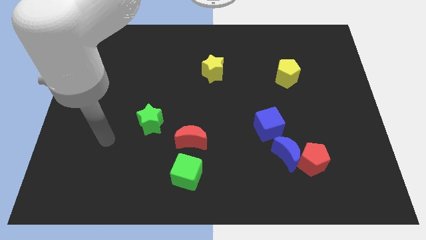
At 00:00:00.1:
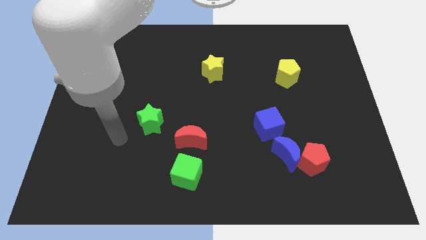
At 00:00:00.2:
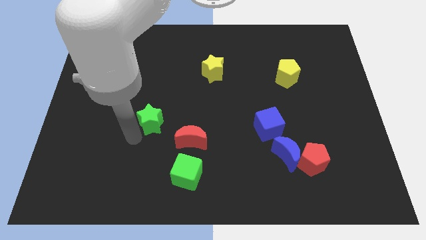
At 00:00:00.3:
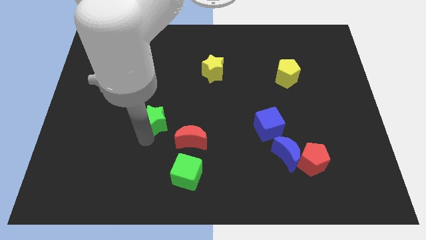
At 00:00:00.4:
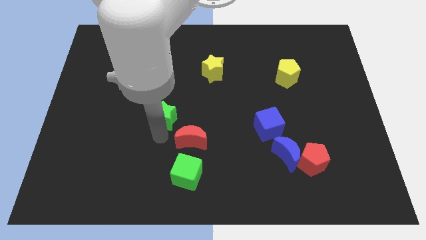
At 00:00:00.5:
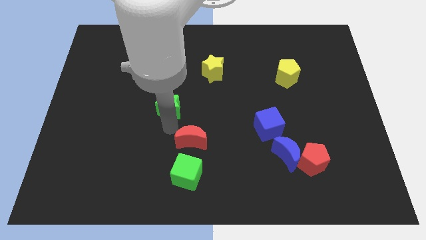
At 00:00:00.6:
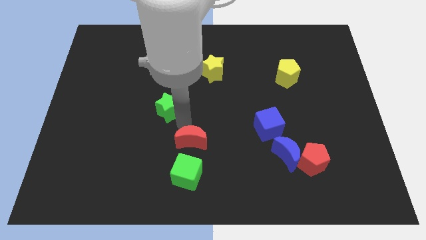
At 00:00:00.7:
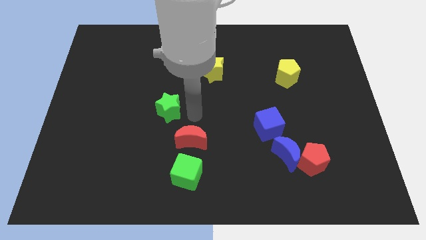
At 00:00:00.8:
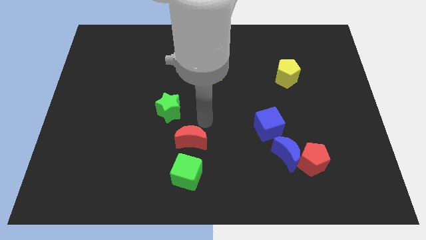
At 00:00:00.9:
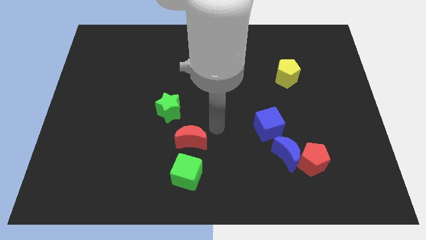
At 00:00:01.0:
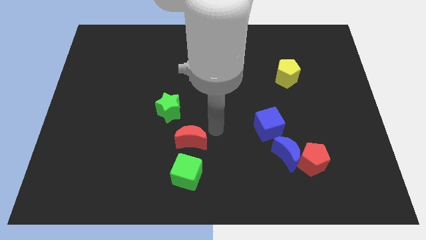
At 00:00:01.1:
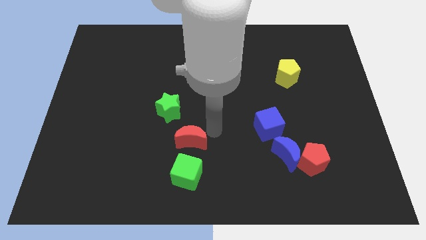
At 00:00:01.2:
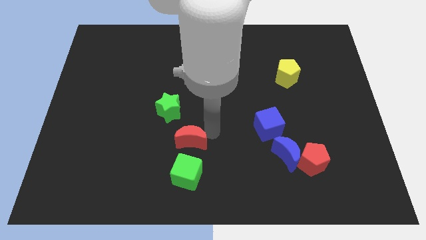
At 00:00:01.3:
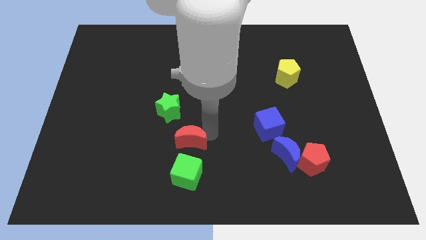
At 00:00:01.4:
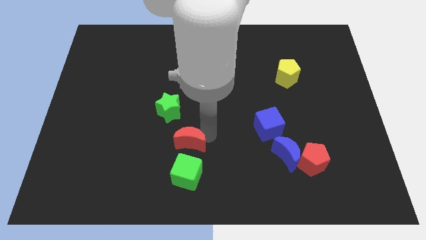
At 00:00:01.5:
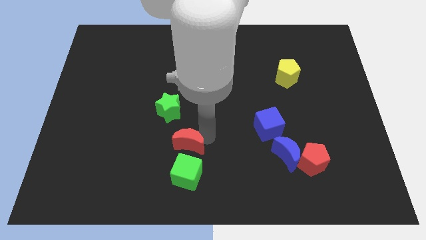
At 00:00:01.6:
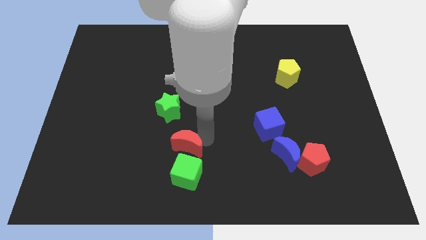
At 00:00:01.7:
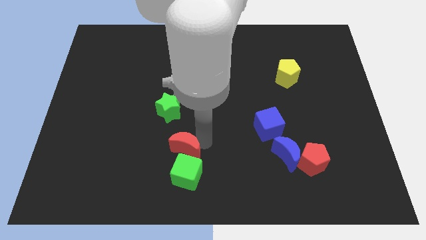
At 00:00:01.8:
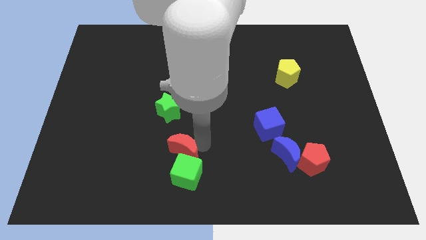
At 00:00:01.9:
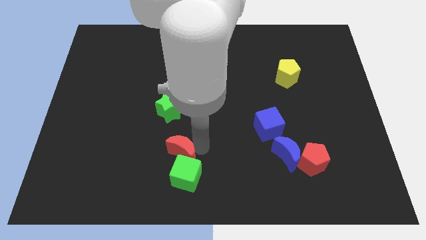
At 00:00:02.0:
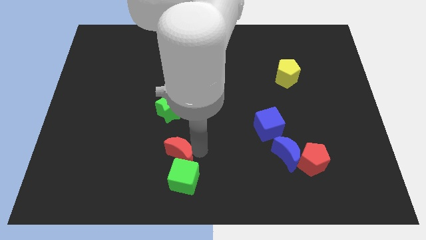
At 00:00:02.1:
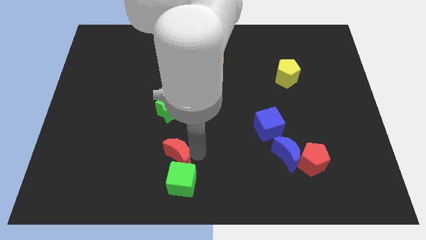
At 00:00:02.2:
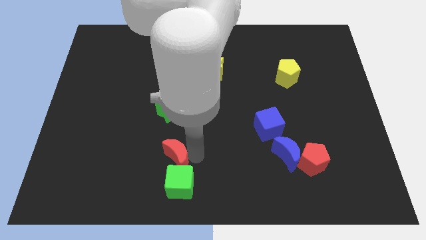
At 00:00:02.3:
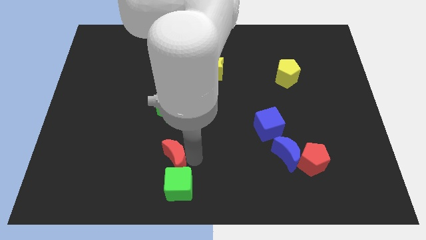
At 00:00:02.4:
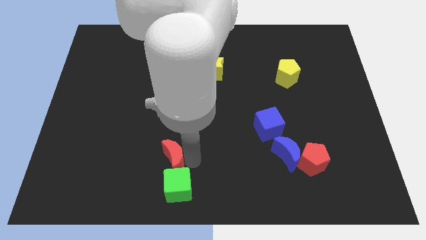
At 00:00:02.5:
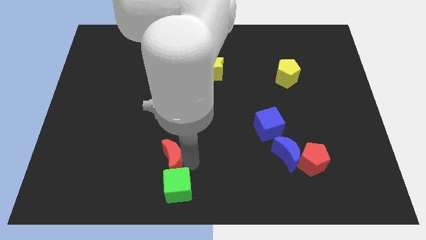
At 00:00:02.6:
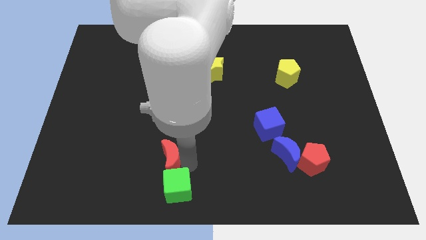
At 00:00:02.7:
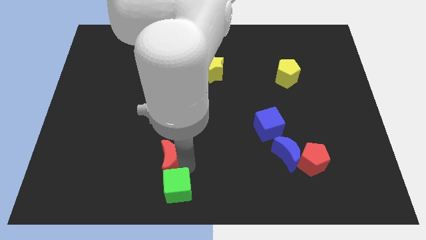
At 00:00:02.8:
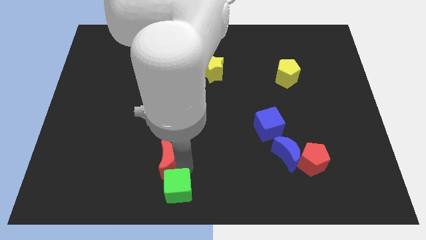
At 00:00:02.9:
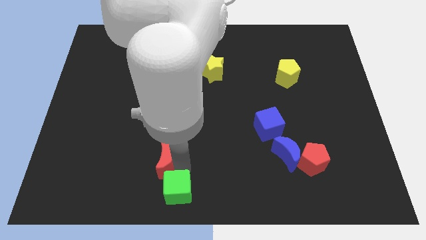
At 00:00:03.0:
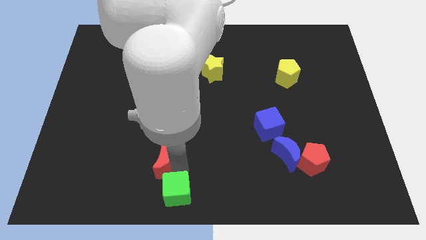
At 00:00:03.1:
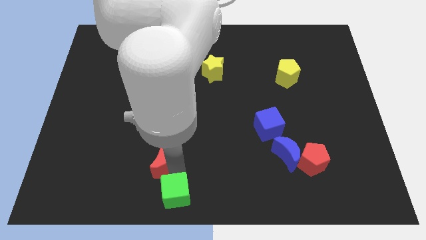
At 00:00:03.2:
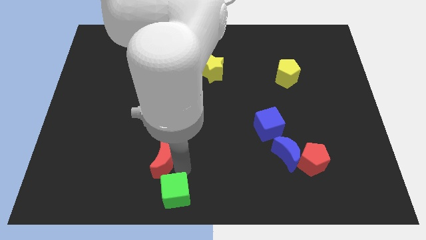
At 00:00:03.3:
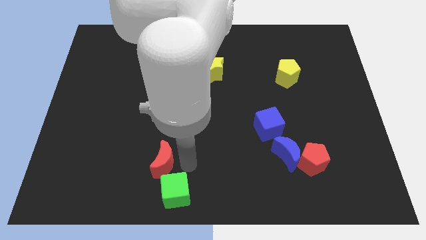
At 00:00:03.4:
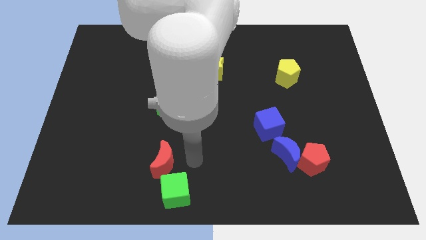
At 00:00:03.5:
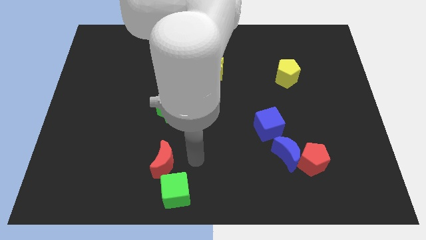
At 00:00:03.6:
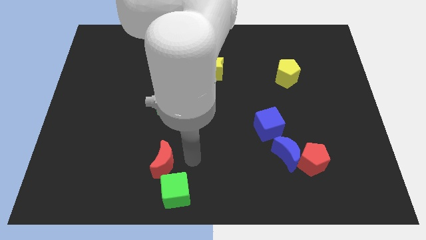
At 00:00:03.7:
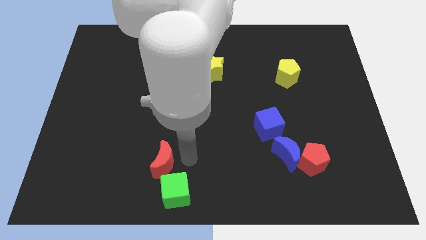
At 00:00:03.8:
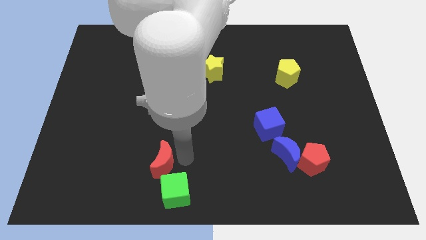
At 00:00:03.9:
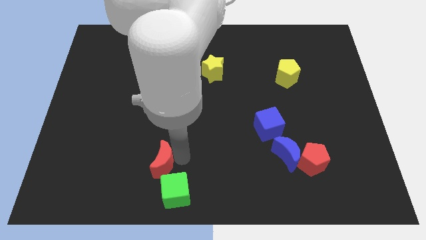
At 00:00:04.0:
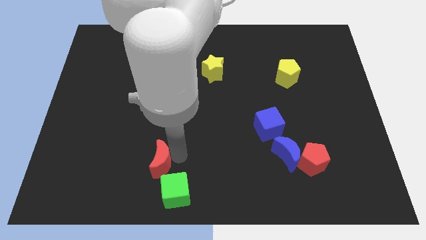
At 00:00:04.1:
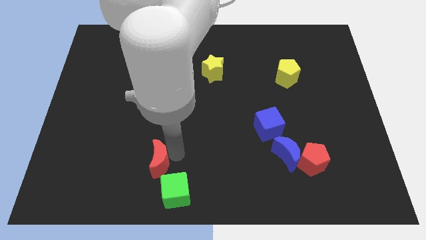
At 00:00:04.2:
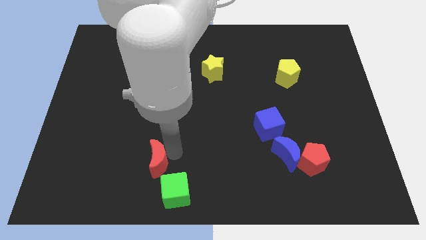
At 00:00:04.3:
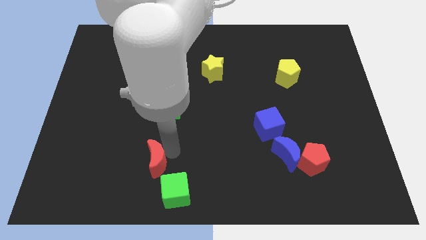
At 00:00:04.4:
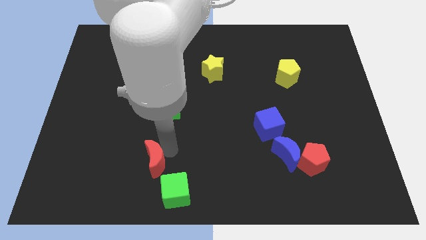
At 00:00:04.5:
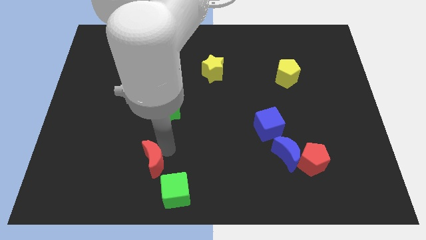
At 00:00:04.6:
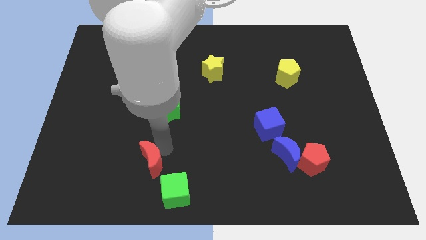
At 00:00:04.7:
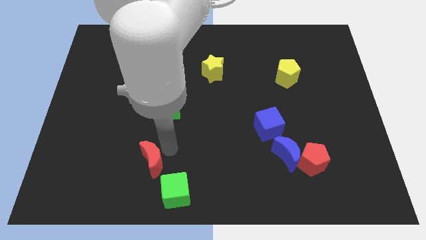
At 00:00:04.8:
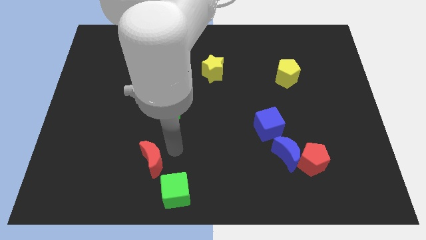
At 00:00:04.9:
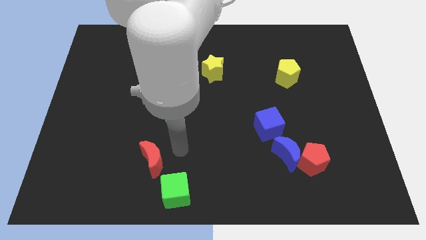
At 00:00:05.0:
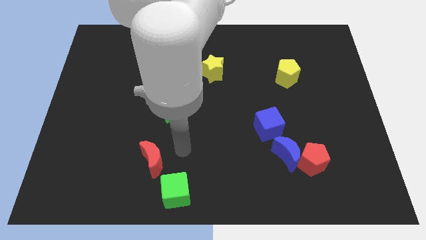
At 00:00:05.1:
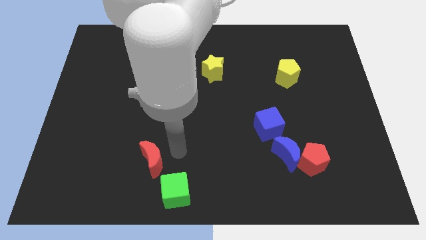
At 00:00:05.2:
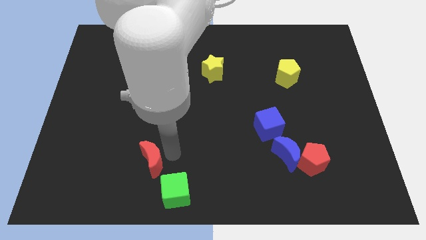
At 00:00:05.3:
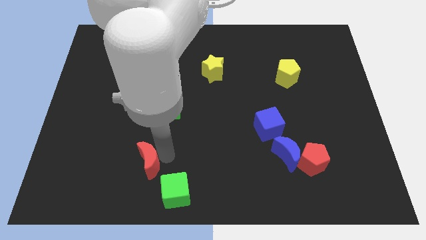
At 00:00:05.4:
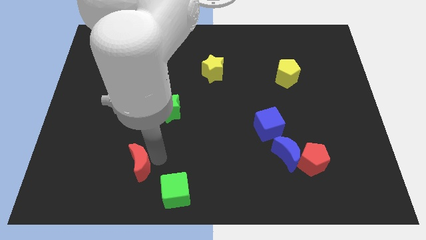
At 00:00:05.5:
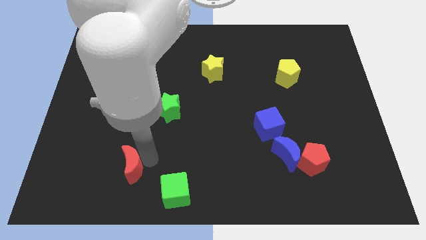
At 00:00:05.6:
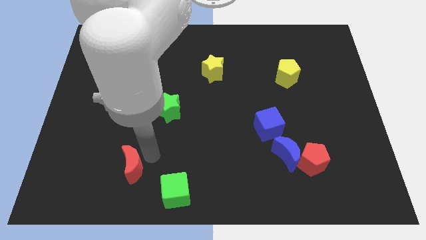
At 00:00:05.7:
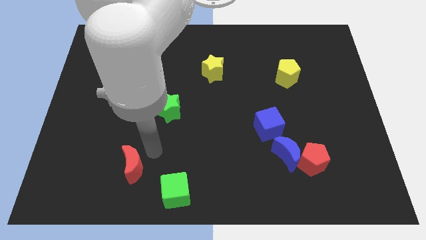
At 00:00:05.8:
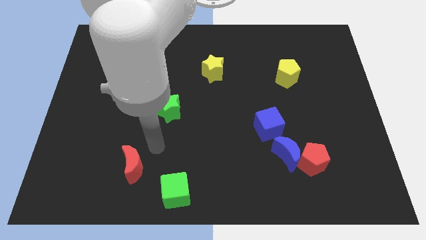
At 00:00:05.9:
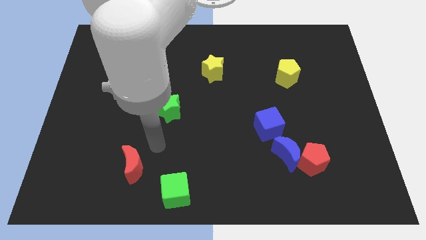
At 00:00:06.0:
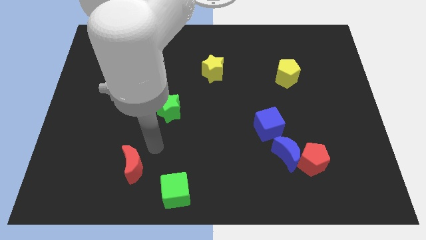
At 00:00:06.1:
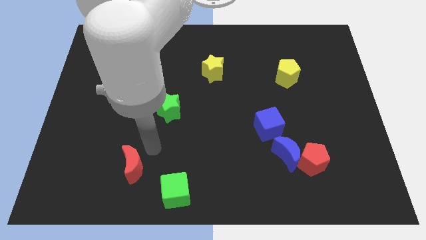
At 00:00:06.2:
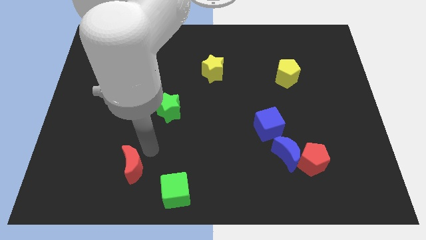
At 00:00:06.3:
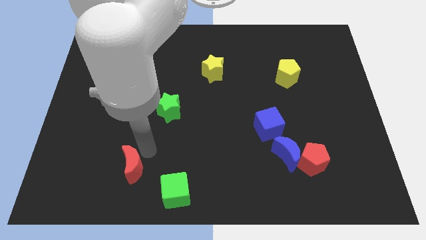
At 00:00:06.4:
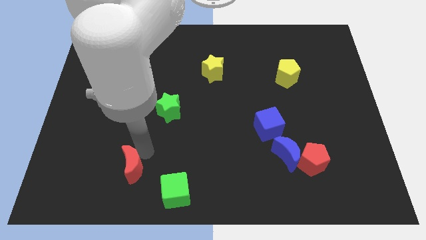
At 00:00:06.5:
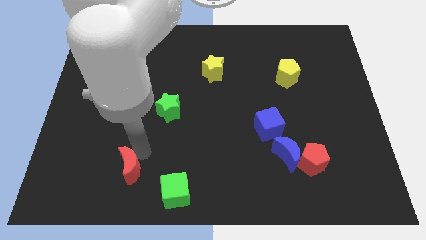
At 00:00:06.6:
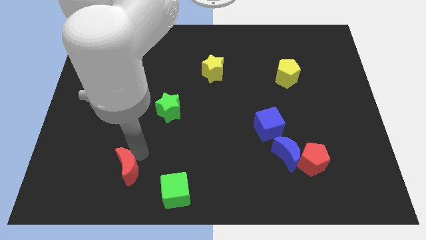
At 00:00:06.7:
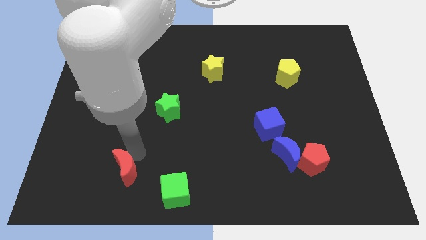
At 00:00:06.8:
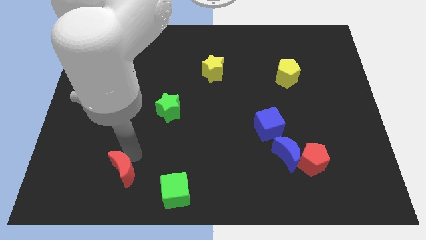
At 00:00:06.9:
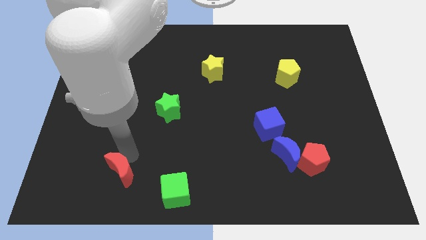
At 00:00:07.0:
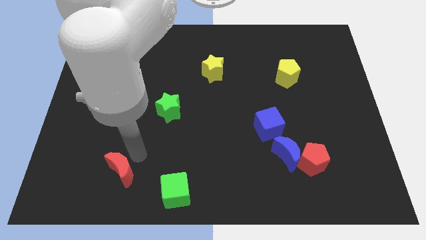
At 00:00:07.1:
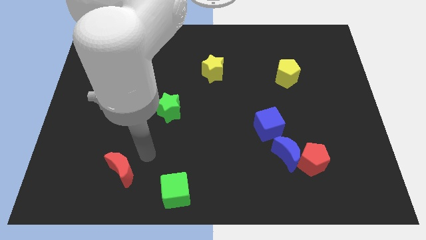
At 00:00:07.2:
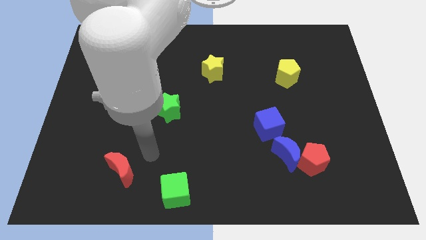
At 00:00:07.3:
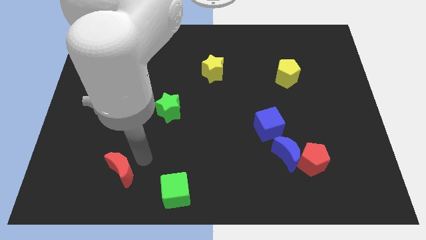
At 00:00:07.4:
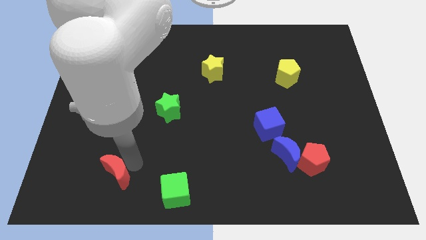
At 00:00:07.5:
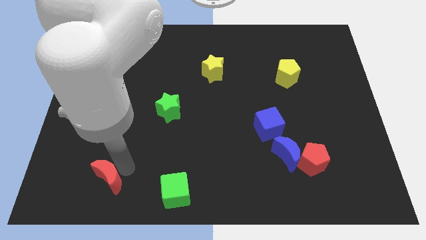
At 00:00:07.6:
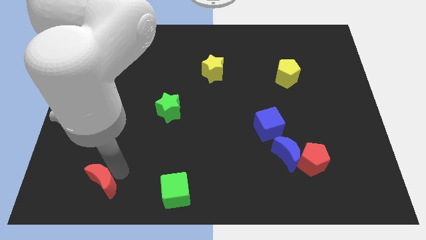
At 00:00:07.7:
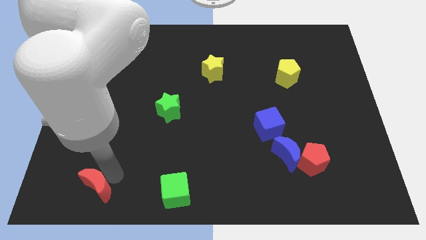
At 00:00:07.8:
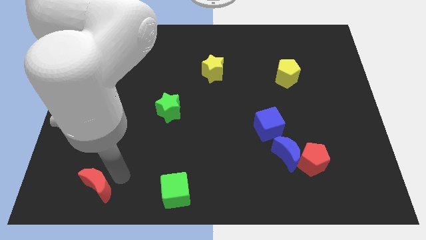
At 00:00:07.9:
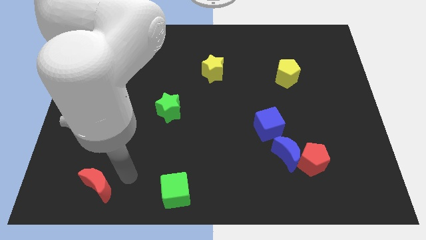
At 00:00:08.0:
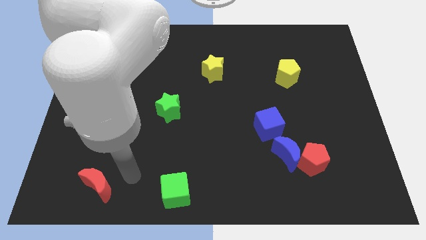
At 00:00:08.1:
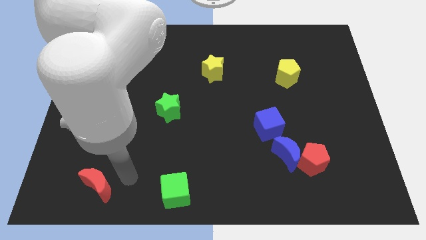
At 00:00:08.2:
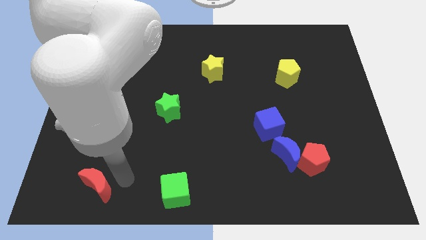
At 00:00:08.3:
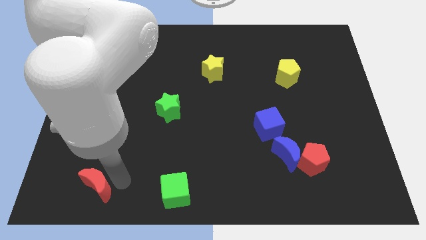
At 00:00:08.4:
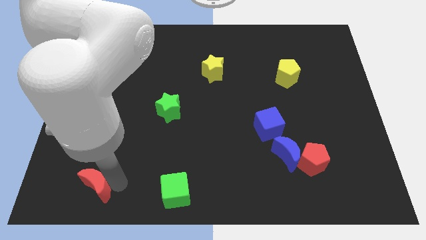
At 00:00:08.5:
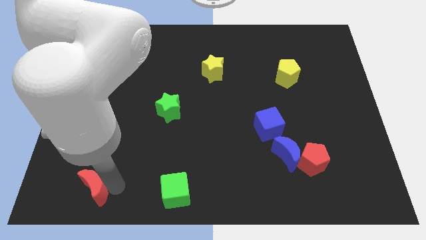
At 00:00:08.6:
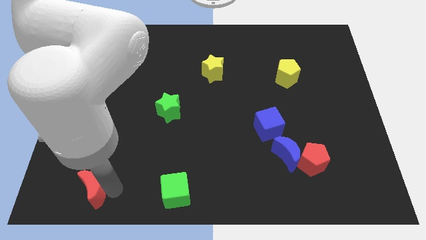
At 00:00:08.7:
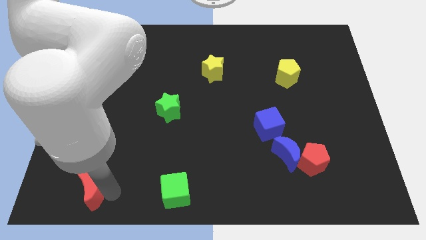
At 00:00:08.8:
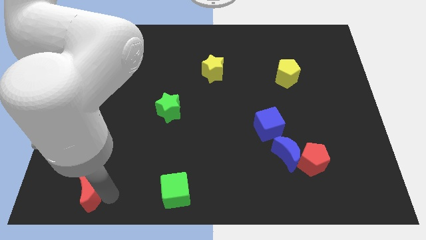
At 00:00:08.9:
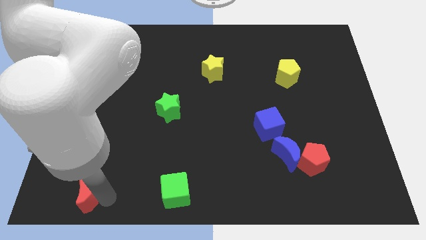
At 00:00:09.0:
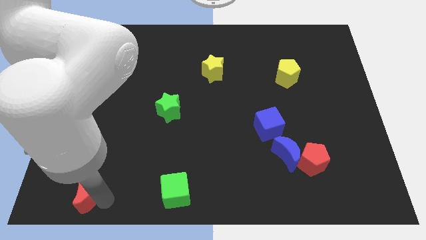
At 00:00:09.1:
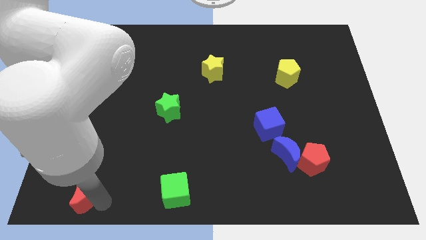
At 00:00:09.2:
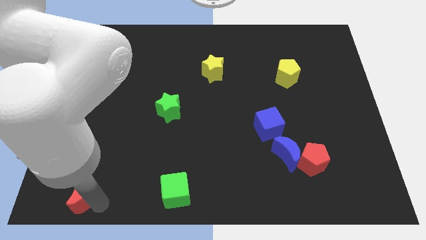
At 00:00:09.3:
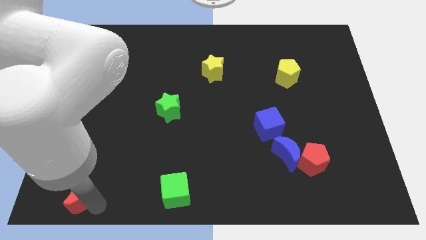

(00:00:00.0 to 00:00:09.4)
push the red moon to the bottom left of the board
